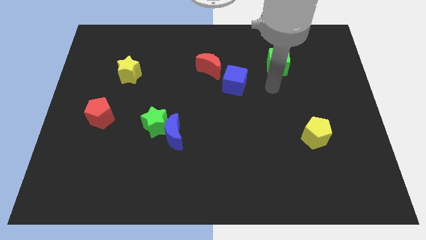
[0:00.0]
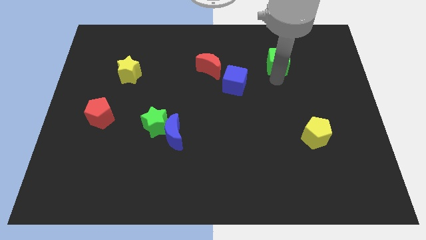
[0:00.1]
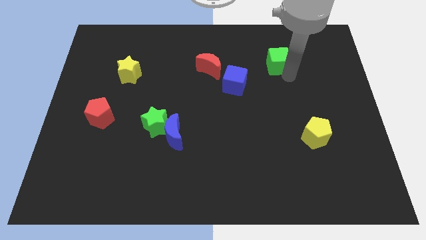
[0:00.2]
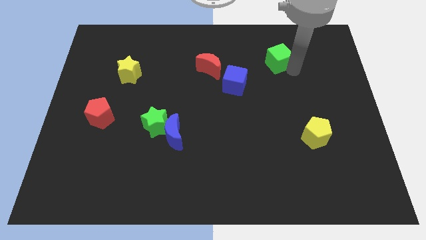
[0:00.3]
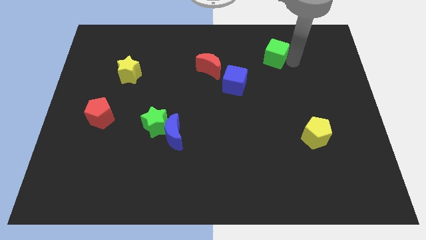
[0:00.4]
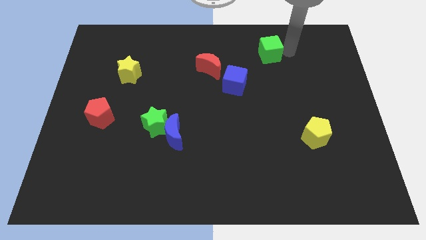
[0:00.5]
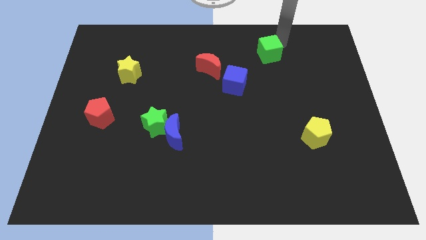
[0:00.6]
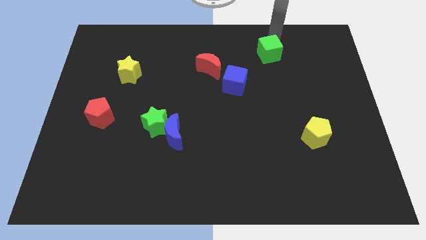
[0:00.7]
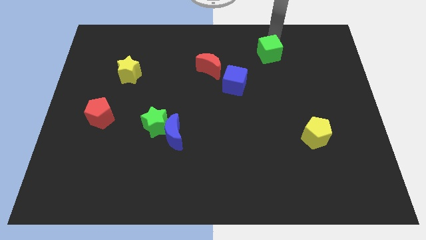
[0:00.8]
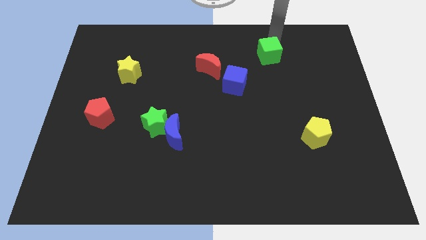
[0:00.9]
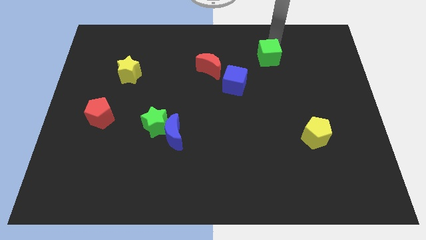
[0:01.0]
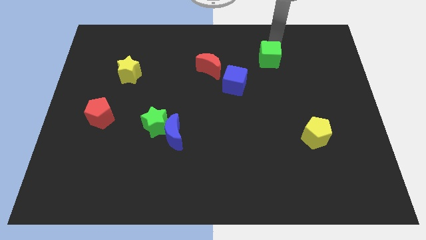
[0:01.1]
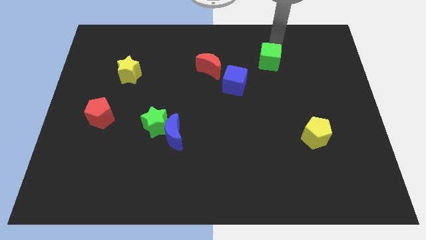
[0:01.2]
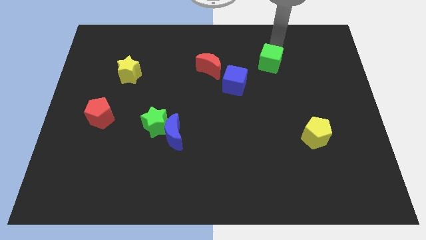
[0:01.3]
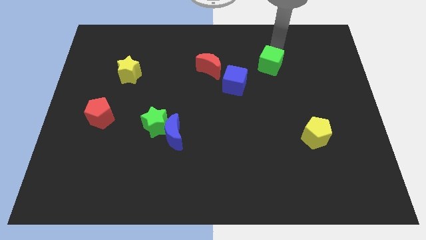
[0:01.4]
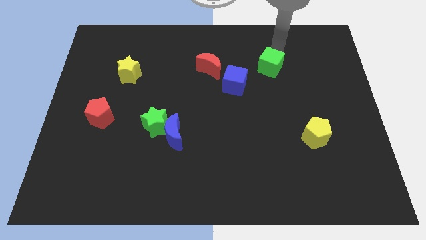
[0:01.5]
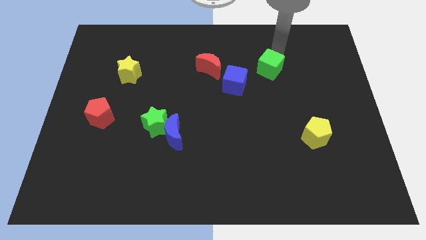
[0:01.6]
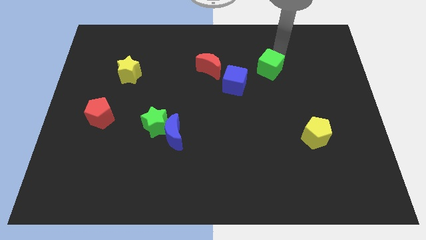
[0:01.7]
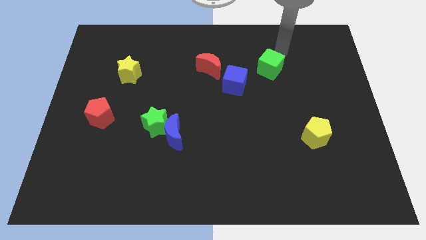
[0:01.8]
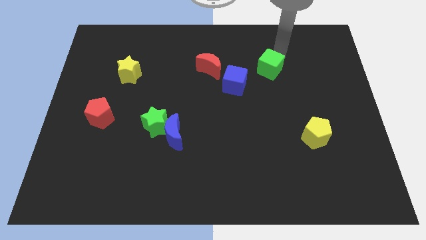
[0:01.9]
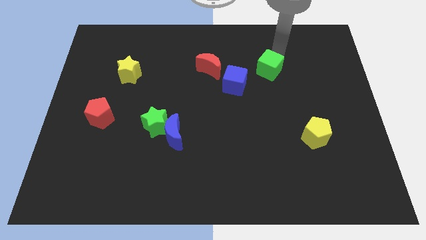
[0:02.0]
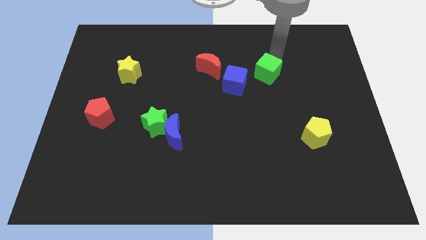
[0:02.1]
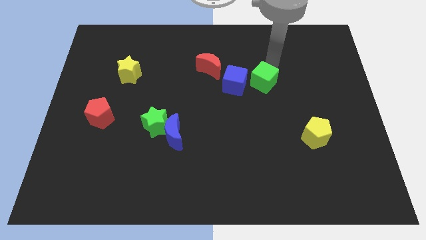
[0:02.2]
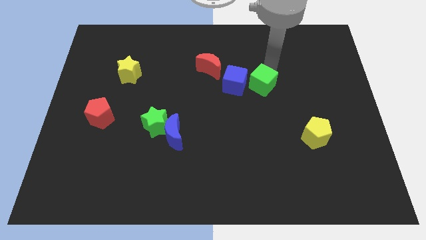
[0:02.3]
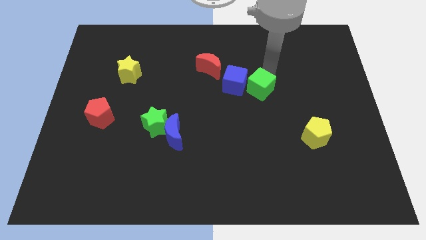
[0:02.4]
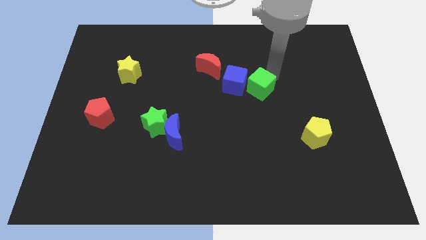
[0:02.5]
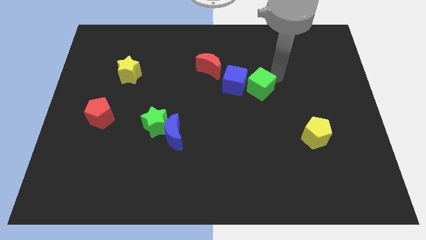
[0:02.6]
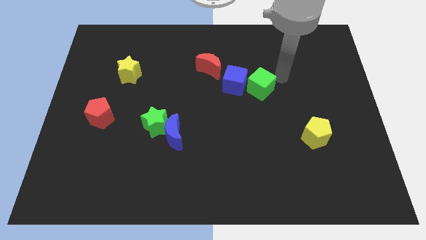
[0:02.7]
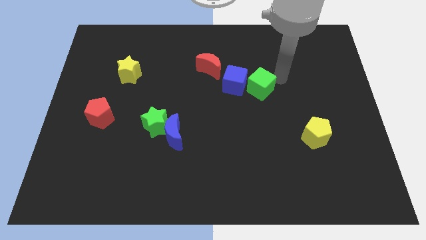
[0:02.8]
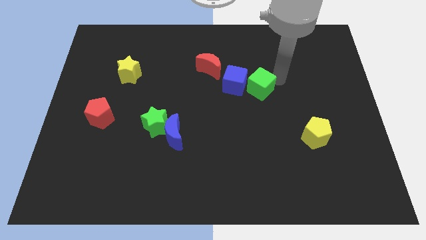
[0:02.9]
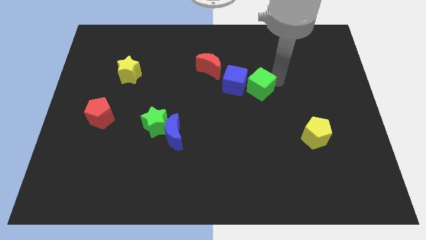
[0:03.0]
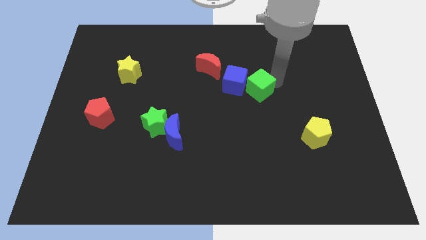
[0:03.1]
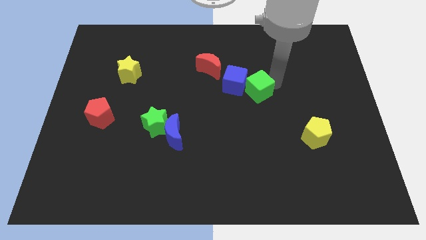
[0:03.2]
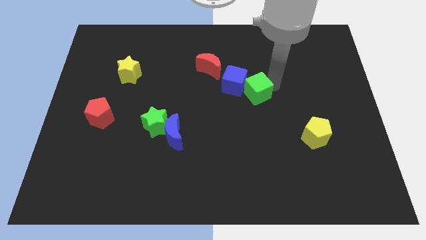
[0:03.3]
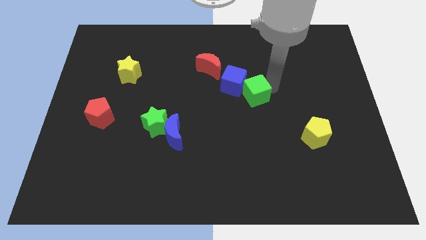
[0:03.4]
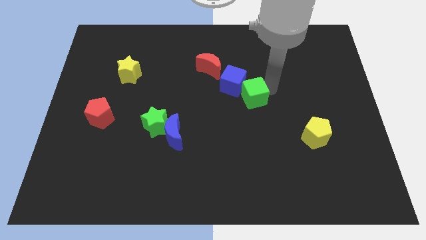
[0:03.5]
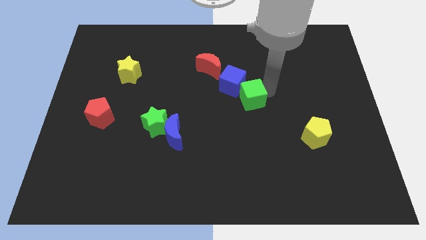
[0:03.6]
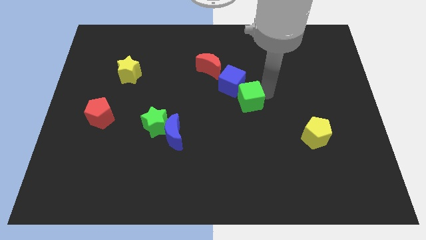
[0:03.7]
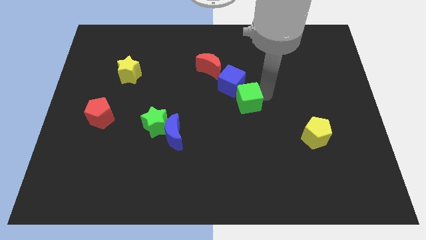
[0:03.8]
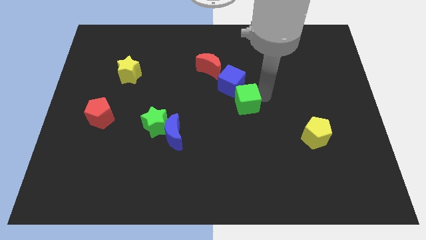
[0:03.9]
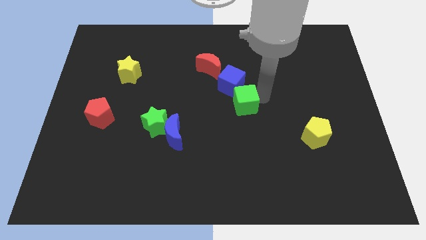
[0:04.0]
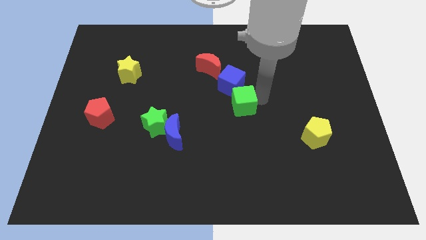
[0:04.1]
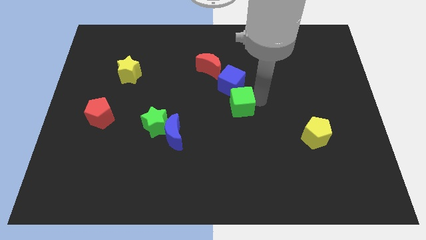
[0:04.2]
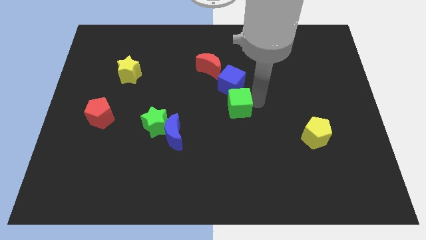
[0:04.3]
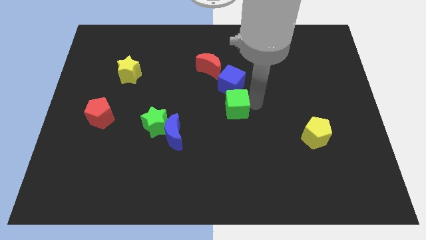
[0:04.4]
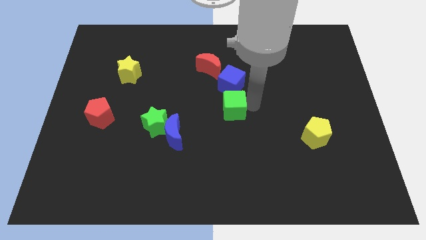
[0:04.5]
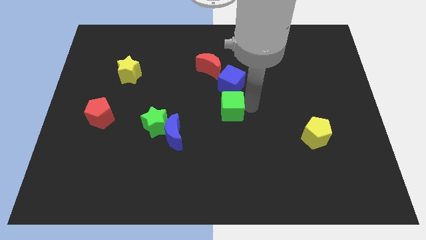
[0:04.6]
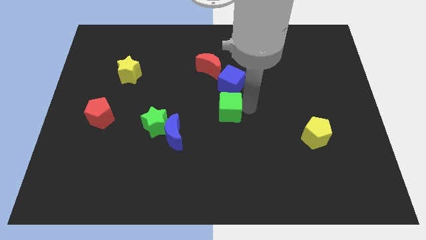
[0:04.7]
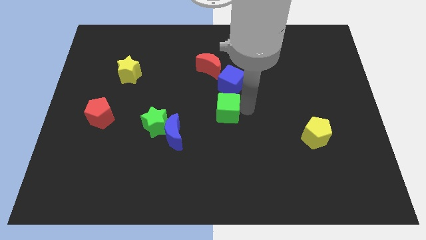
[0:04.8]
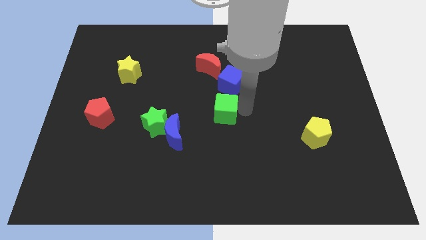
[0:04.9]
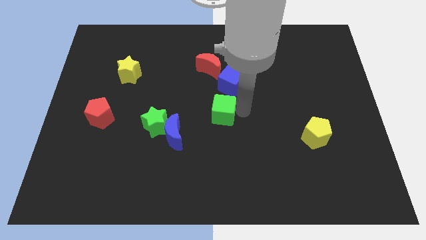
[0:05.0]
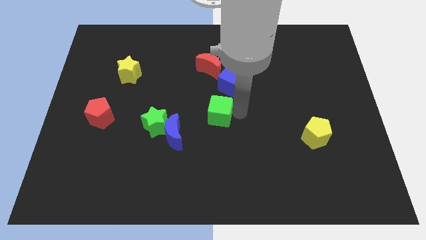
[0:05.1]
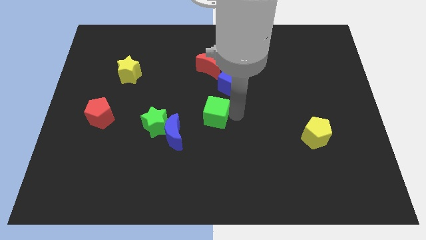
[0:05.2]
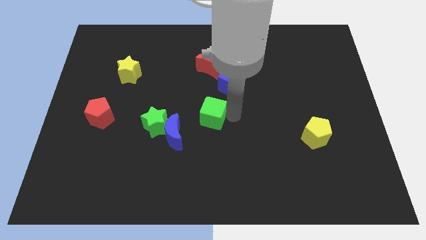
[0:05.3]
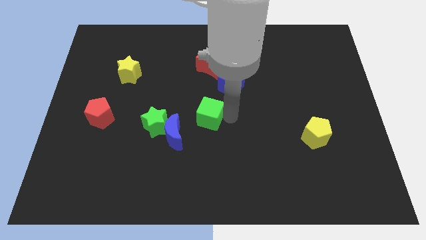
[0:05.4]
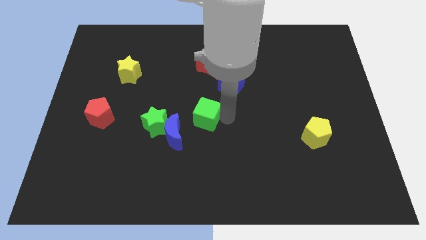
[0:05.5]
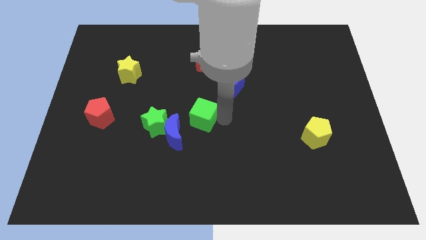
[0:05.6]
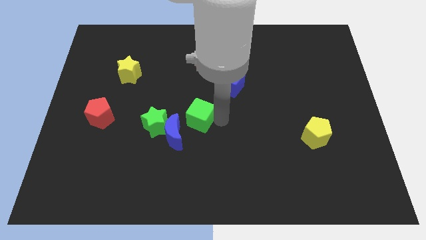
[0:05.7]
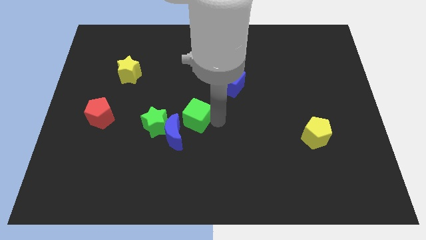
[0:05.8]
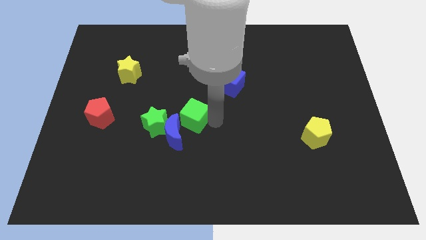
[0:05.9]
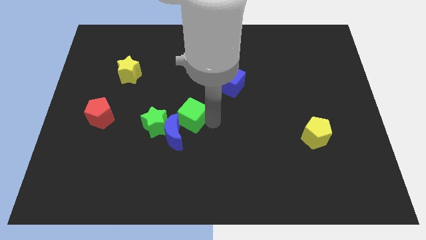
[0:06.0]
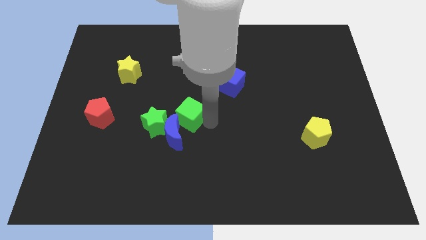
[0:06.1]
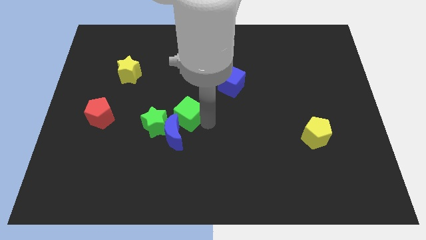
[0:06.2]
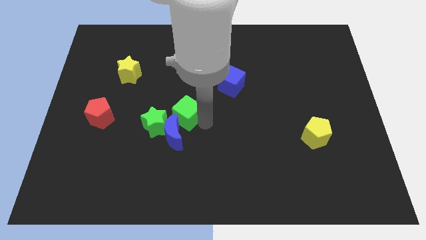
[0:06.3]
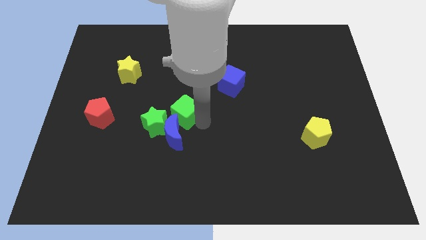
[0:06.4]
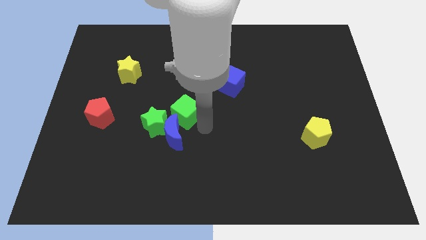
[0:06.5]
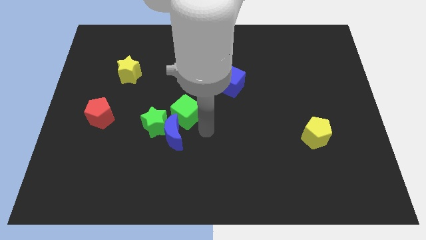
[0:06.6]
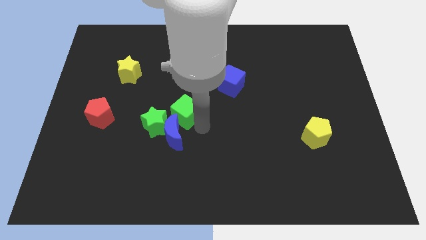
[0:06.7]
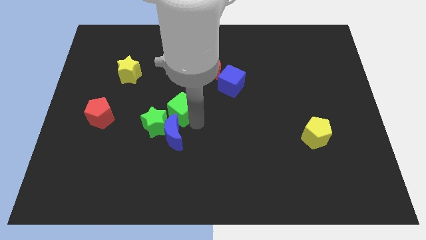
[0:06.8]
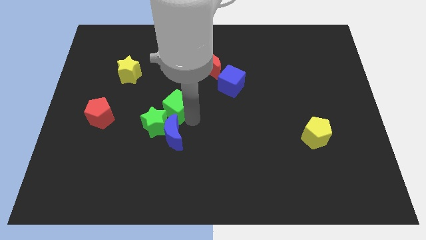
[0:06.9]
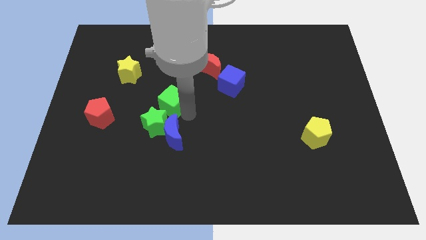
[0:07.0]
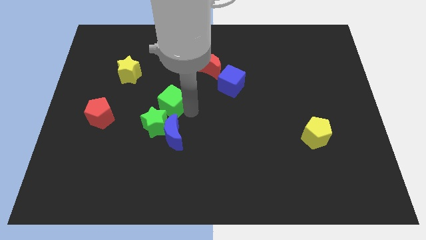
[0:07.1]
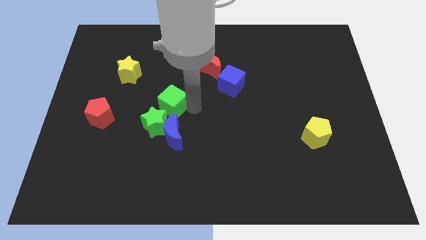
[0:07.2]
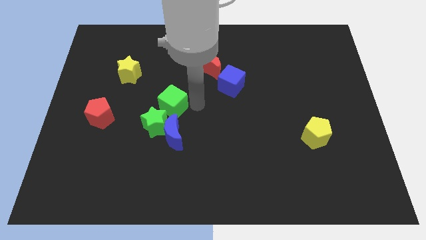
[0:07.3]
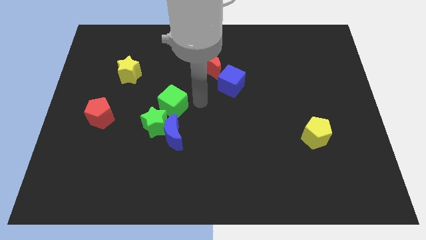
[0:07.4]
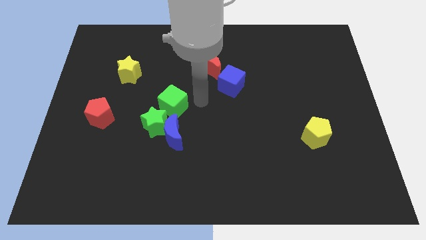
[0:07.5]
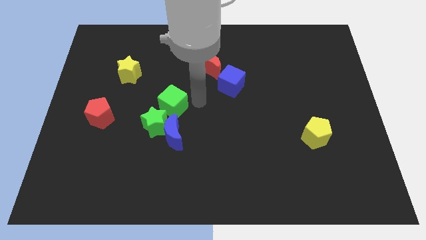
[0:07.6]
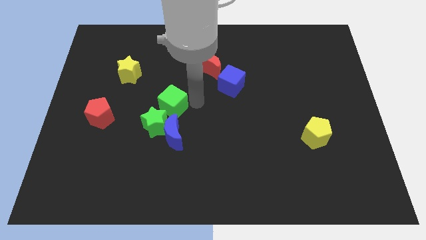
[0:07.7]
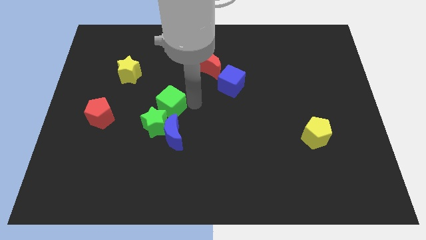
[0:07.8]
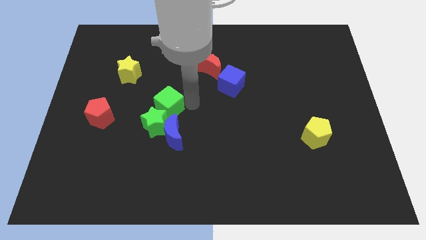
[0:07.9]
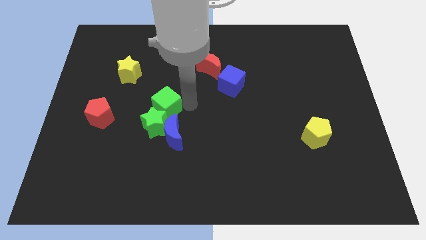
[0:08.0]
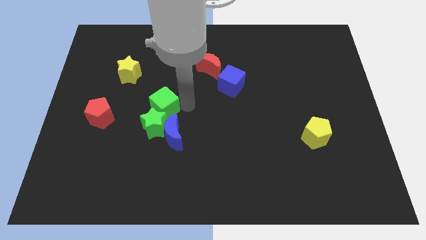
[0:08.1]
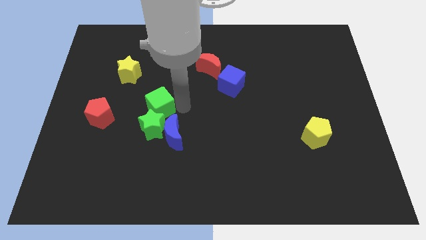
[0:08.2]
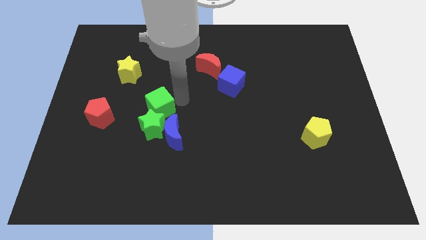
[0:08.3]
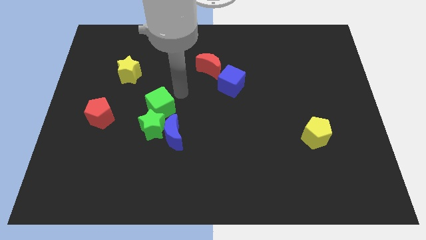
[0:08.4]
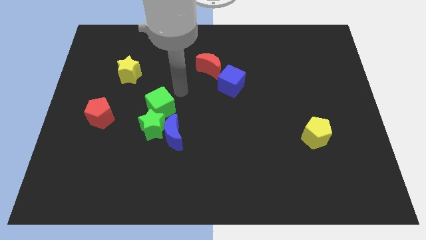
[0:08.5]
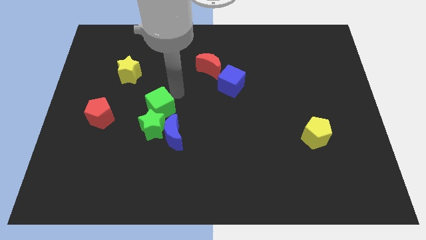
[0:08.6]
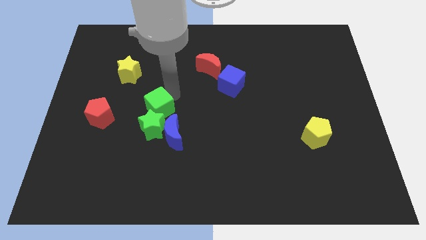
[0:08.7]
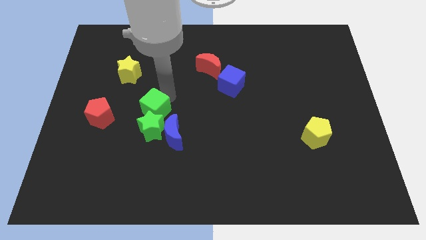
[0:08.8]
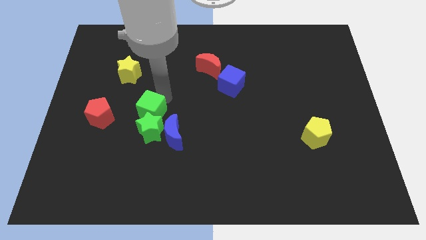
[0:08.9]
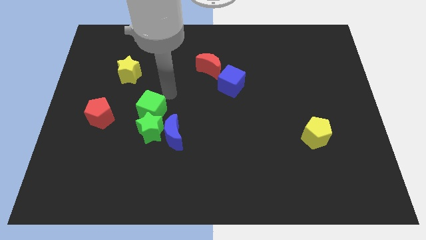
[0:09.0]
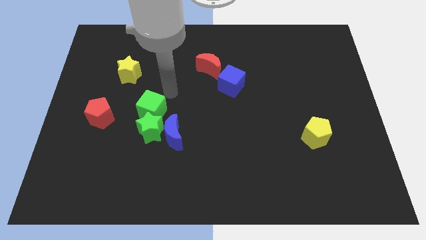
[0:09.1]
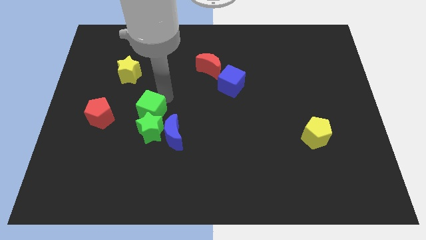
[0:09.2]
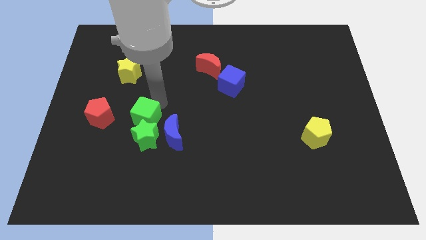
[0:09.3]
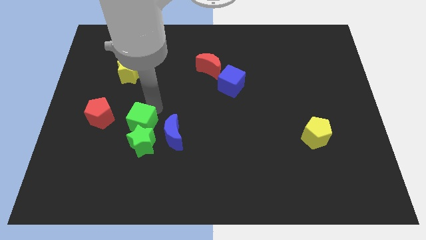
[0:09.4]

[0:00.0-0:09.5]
put the green cube just left of the blue moon
